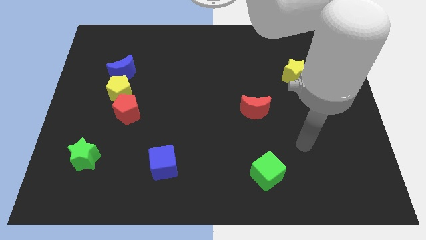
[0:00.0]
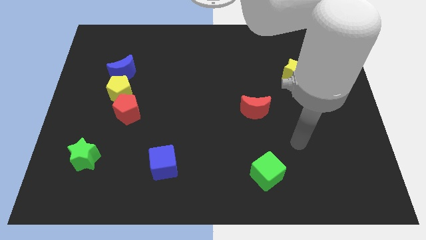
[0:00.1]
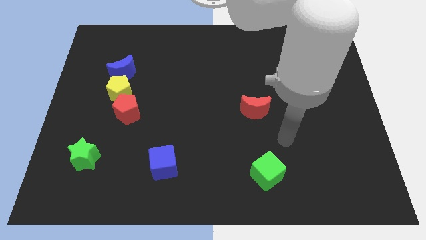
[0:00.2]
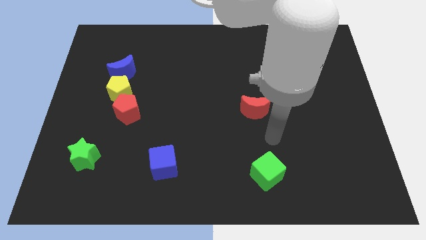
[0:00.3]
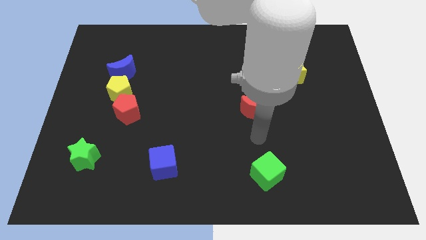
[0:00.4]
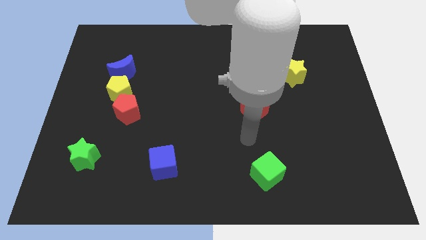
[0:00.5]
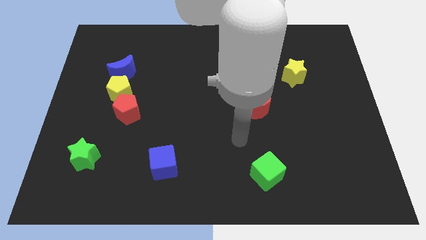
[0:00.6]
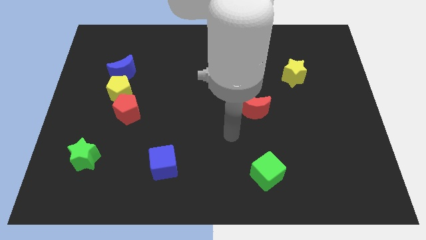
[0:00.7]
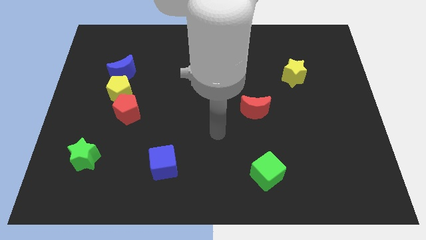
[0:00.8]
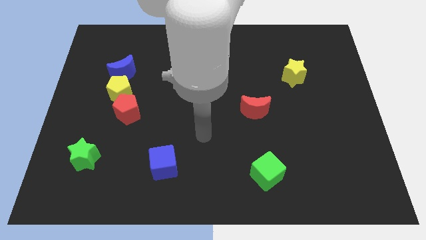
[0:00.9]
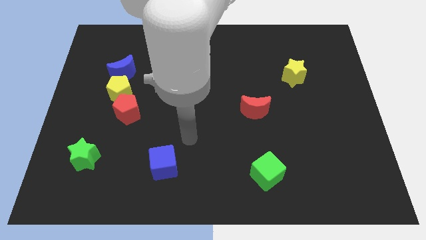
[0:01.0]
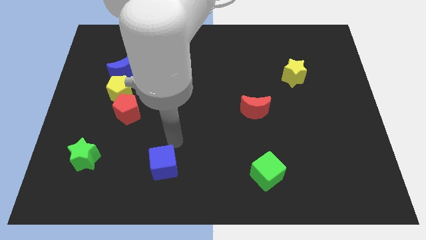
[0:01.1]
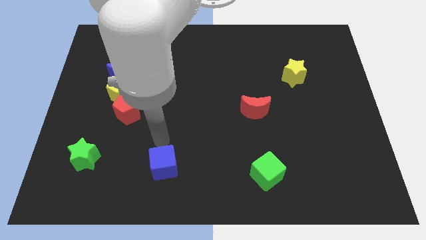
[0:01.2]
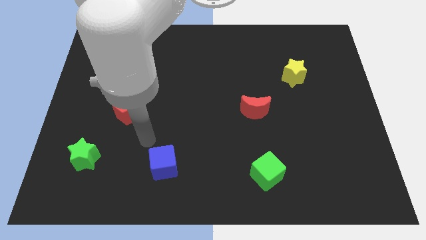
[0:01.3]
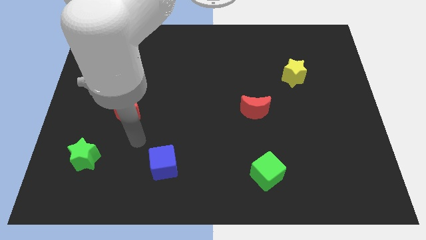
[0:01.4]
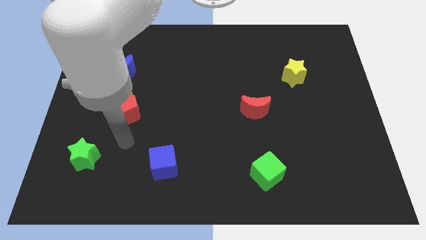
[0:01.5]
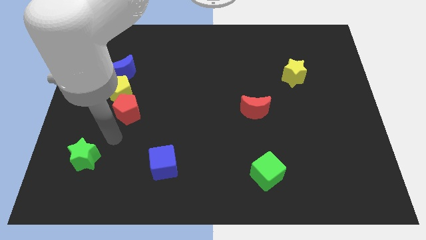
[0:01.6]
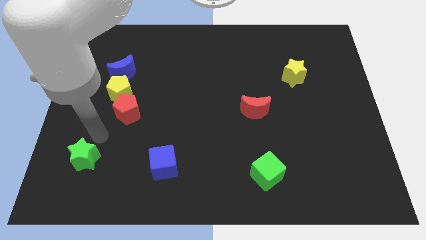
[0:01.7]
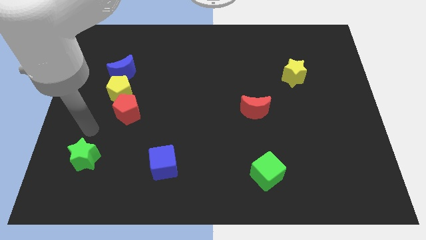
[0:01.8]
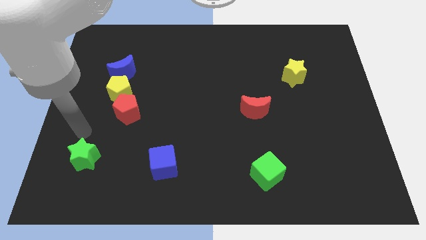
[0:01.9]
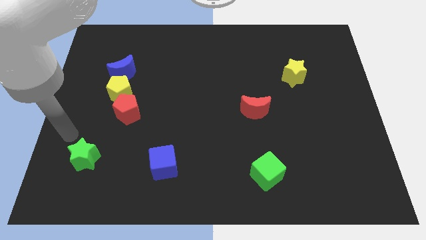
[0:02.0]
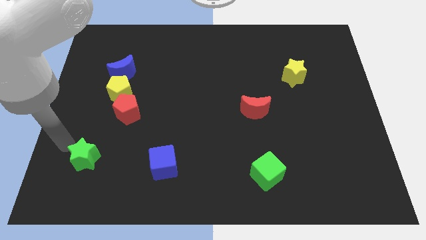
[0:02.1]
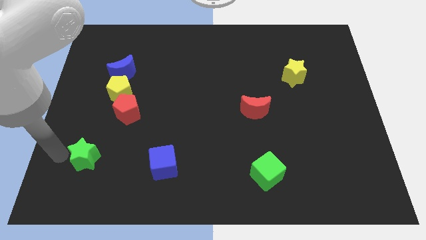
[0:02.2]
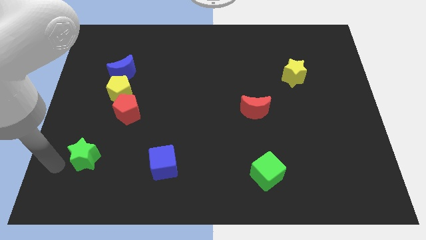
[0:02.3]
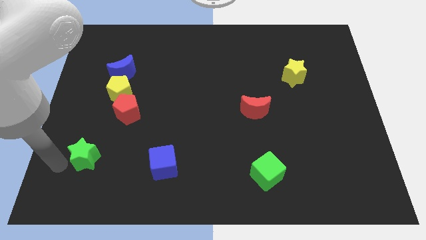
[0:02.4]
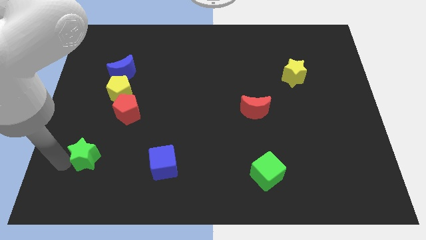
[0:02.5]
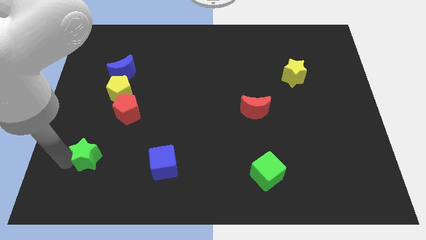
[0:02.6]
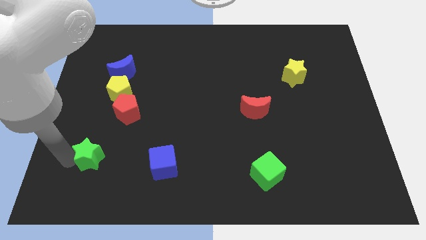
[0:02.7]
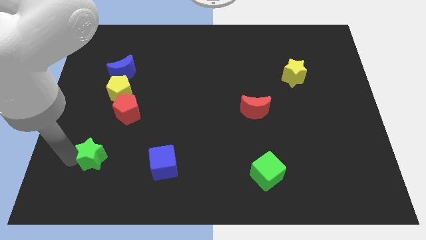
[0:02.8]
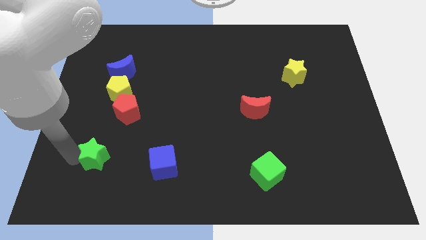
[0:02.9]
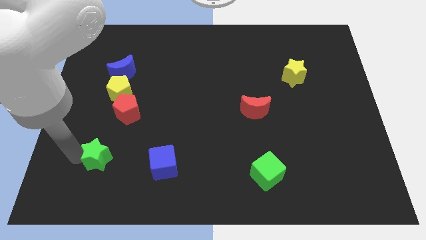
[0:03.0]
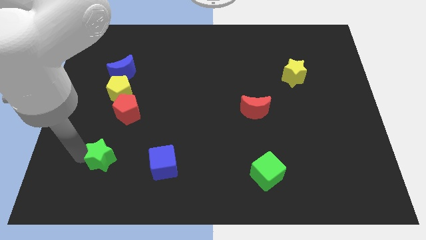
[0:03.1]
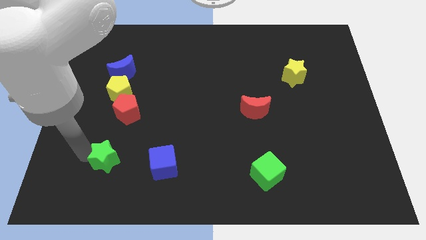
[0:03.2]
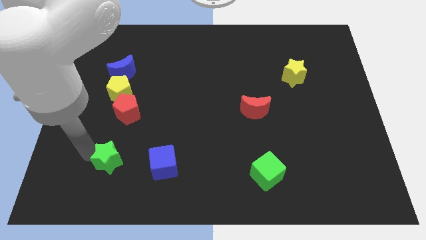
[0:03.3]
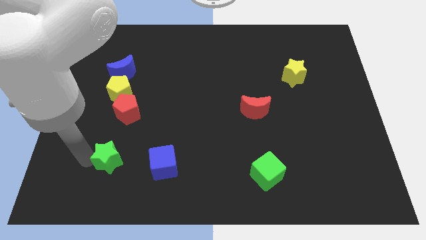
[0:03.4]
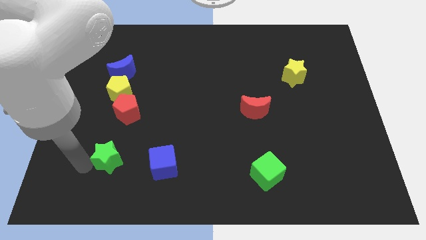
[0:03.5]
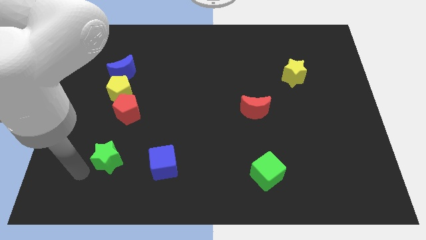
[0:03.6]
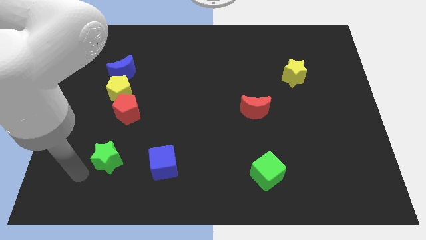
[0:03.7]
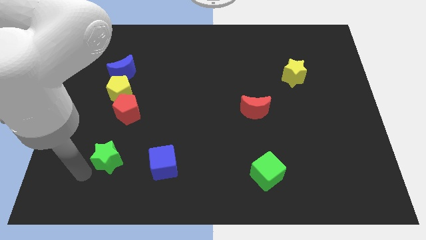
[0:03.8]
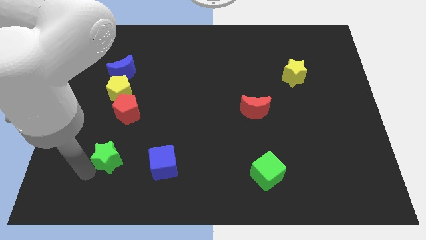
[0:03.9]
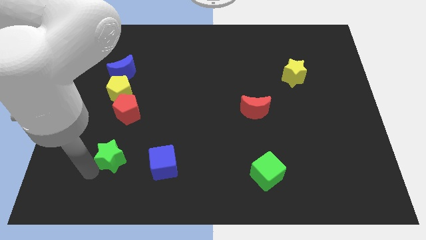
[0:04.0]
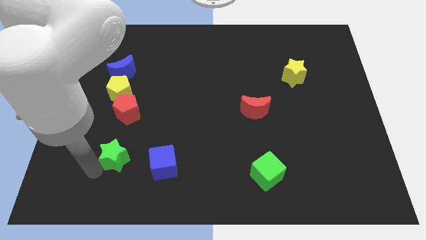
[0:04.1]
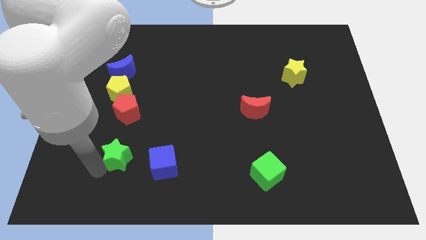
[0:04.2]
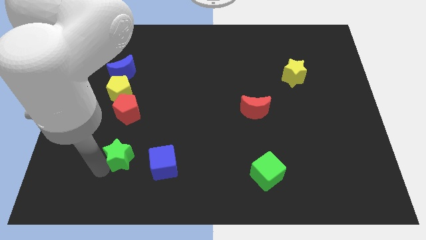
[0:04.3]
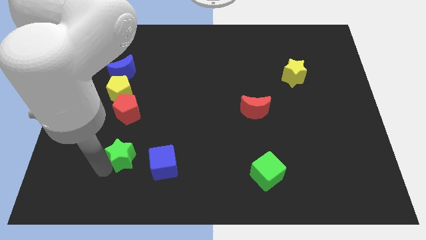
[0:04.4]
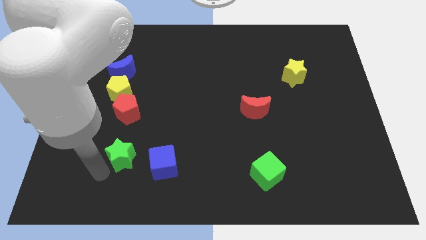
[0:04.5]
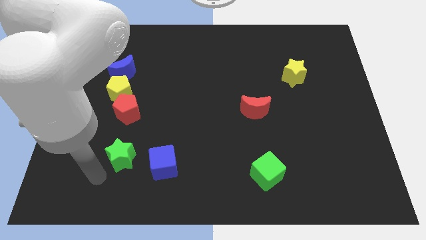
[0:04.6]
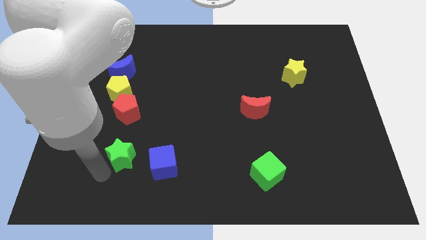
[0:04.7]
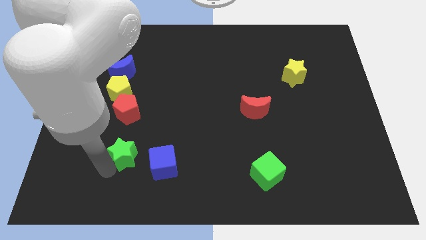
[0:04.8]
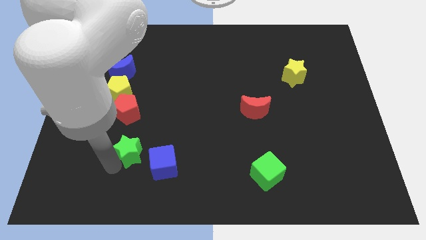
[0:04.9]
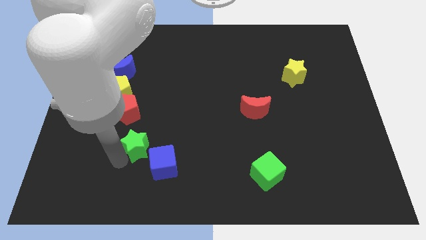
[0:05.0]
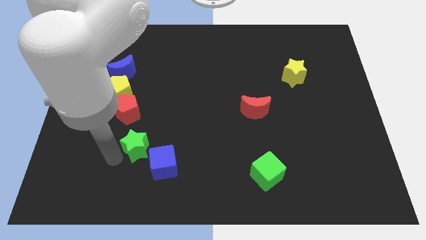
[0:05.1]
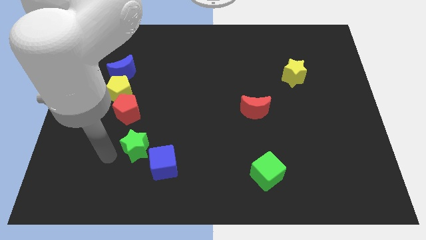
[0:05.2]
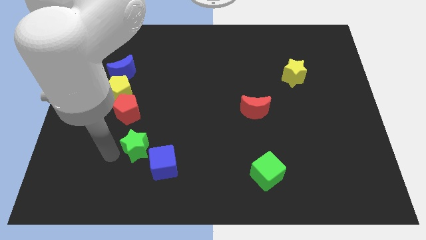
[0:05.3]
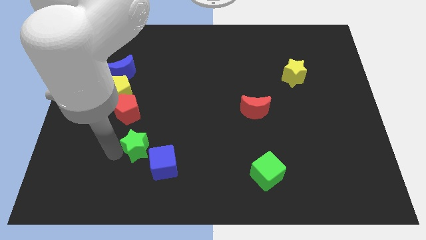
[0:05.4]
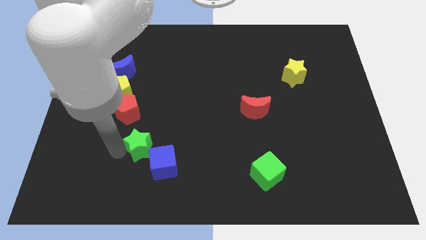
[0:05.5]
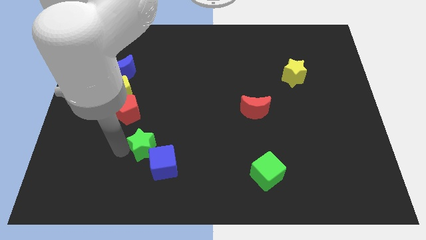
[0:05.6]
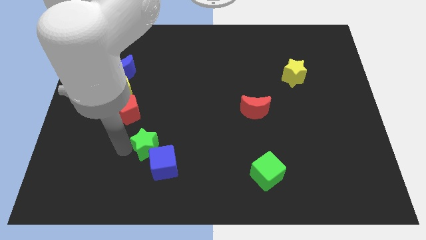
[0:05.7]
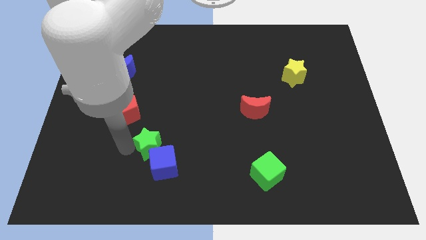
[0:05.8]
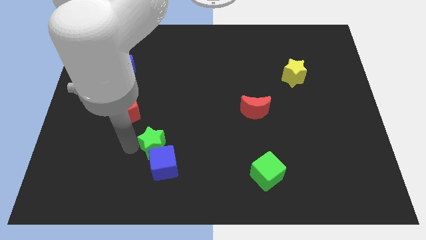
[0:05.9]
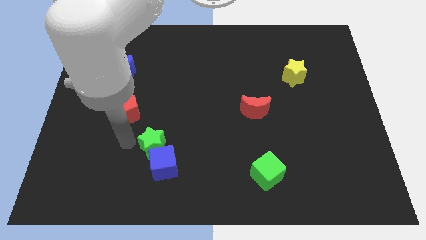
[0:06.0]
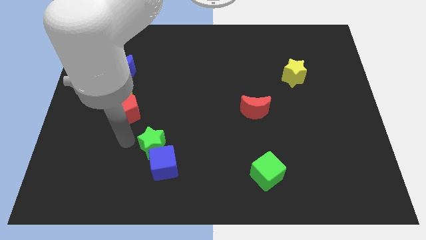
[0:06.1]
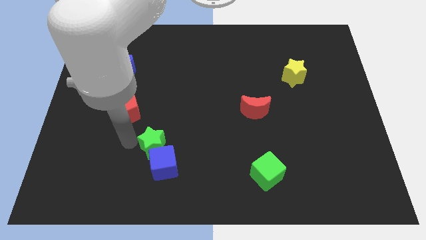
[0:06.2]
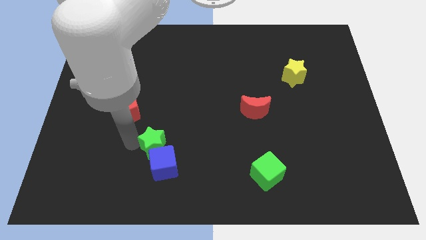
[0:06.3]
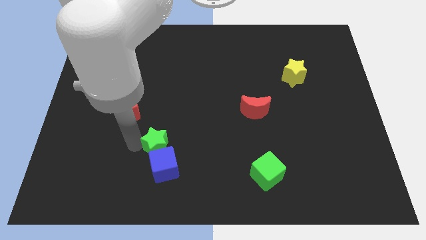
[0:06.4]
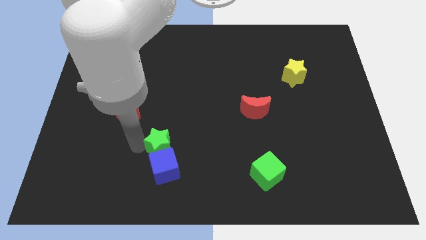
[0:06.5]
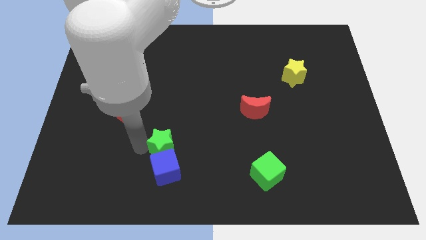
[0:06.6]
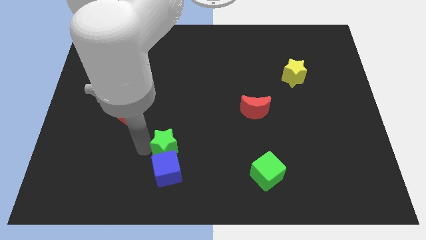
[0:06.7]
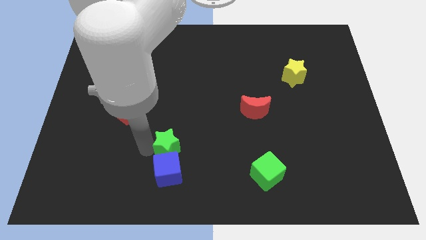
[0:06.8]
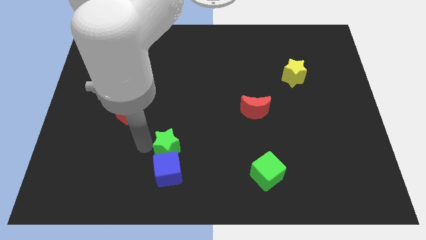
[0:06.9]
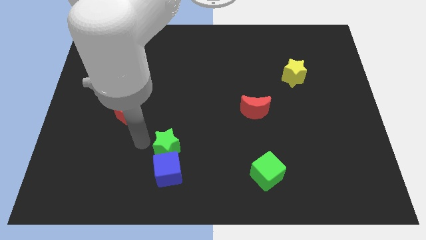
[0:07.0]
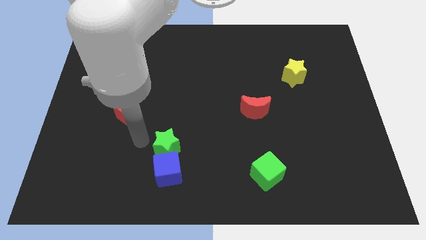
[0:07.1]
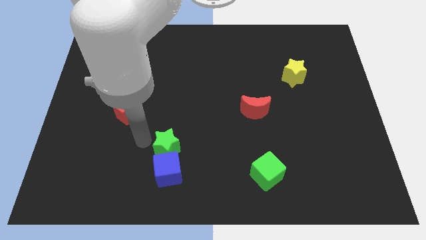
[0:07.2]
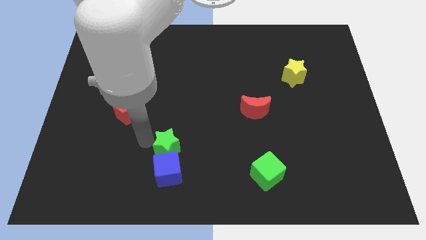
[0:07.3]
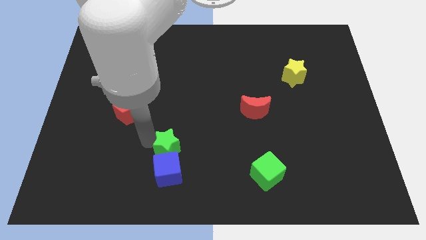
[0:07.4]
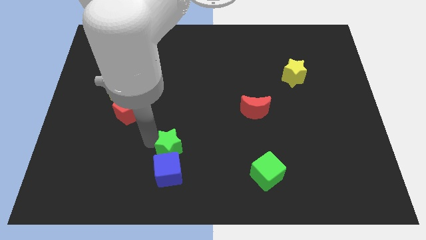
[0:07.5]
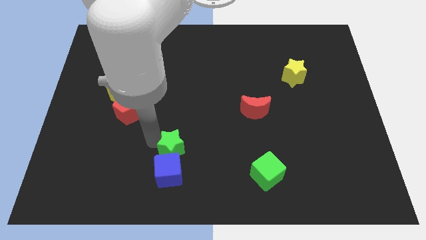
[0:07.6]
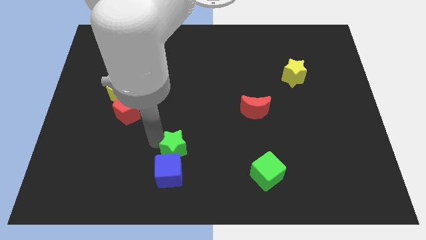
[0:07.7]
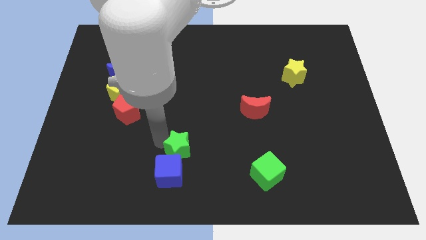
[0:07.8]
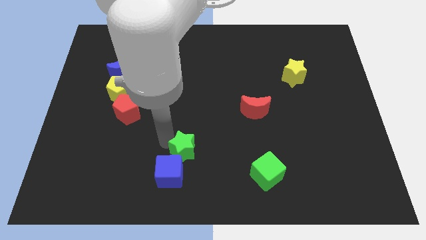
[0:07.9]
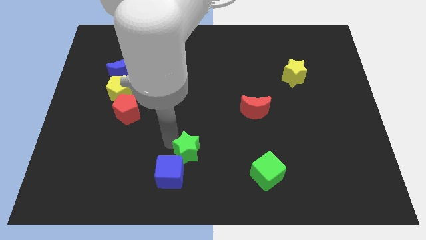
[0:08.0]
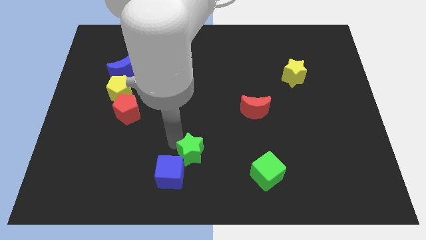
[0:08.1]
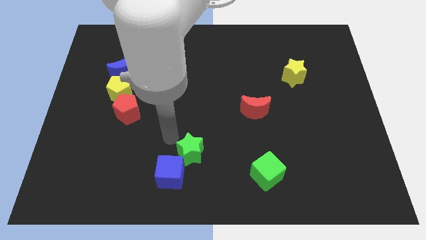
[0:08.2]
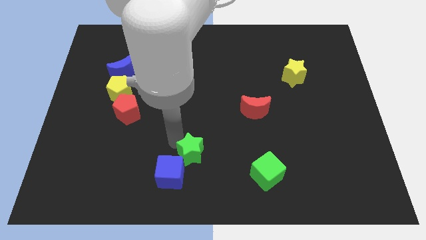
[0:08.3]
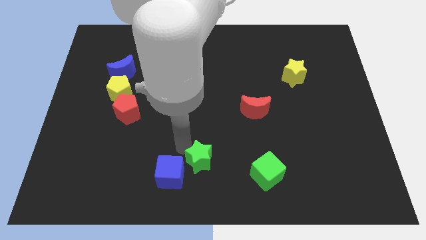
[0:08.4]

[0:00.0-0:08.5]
slide the green star just right of the blue cube
